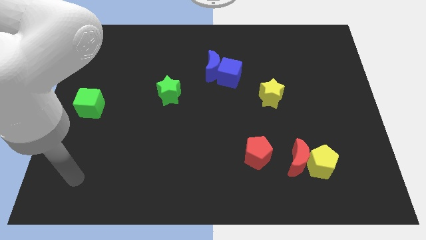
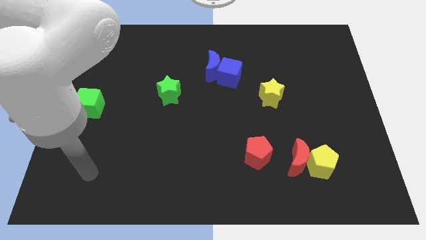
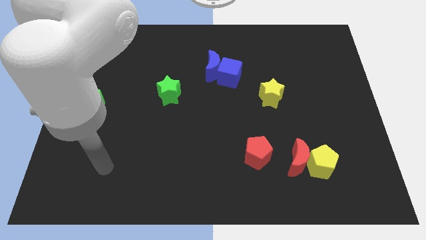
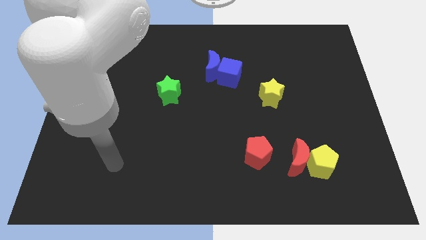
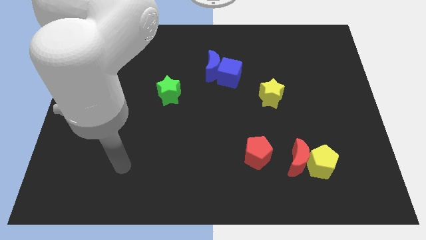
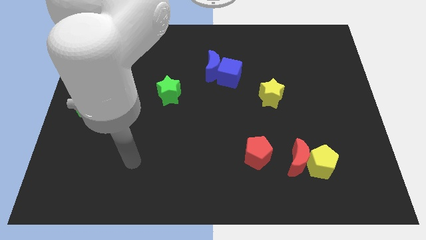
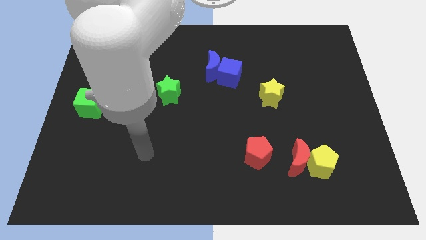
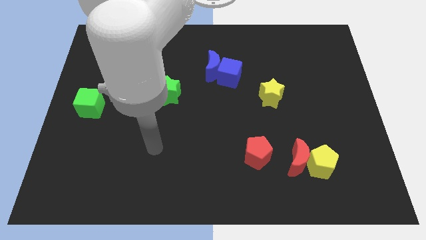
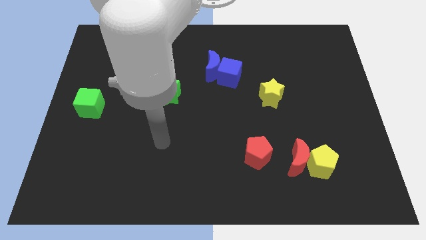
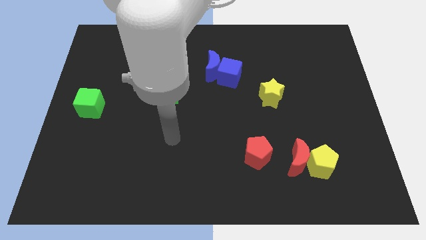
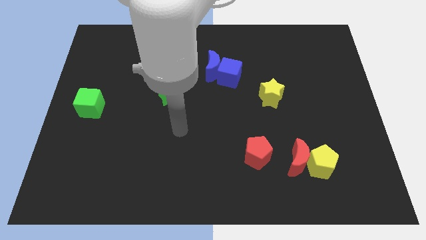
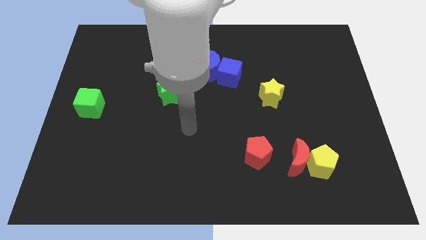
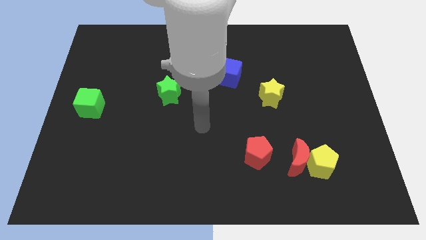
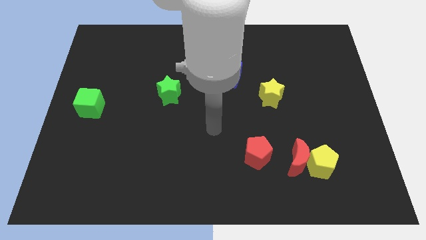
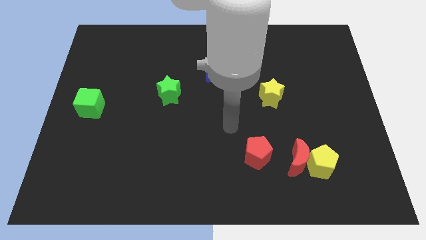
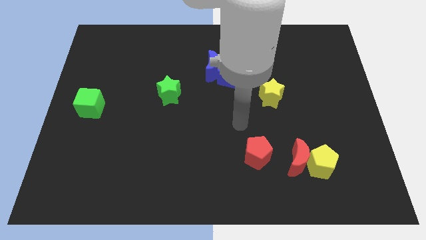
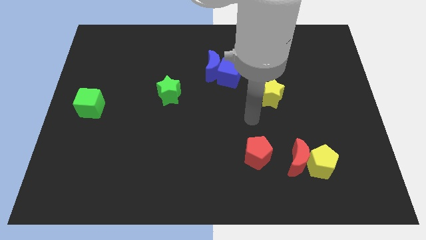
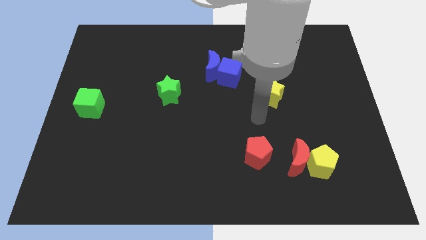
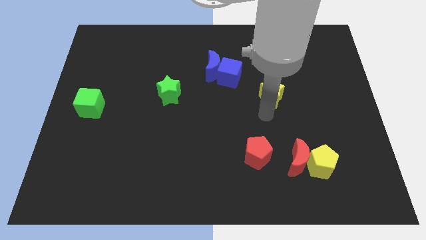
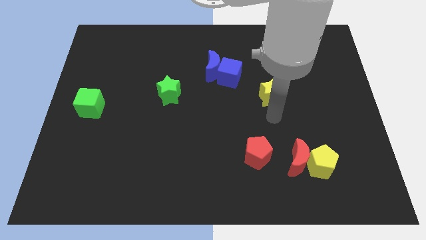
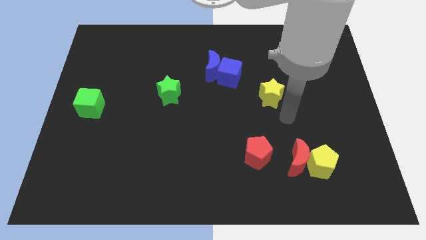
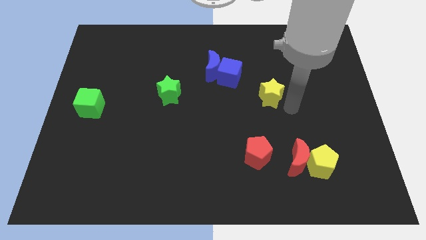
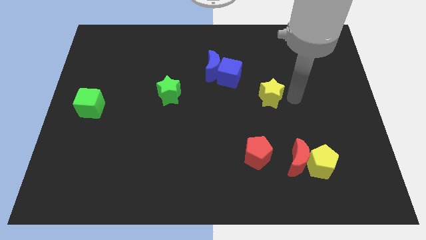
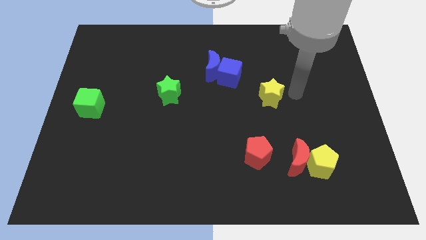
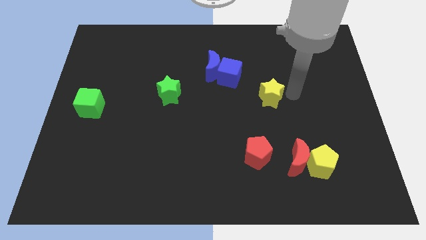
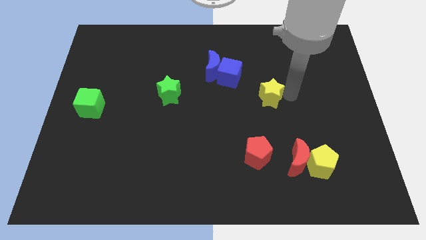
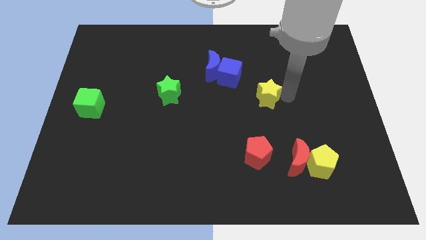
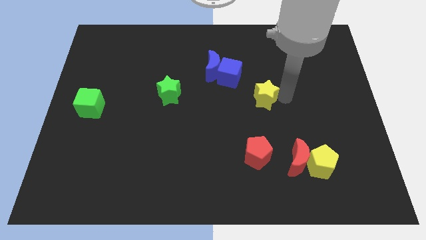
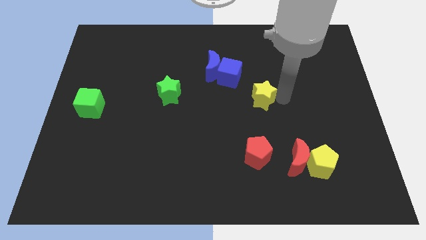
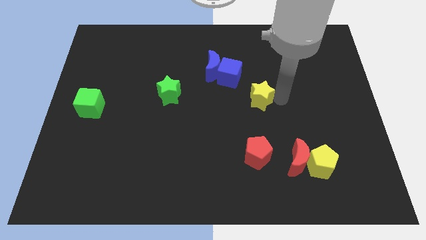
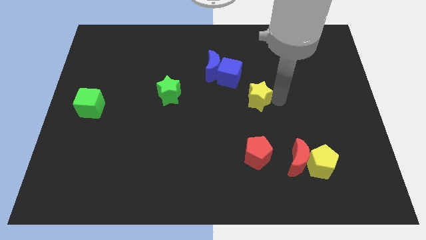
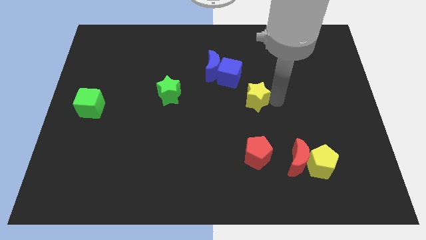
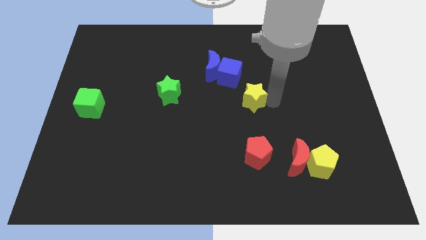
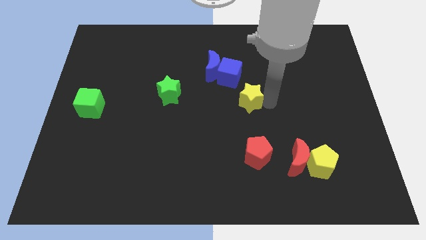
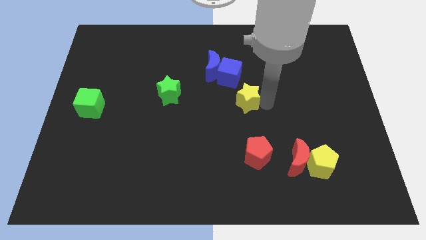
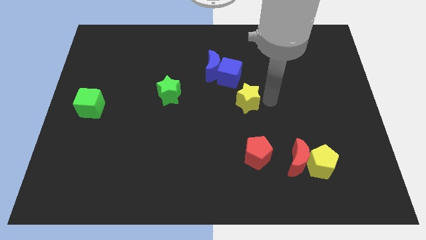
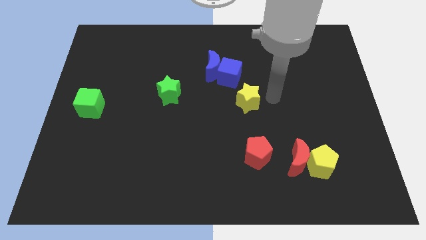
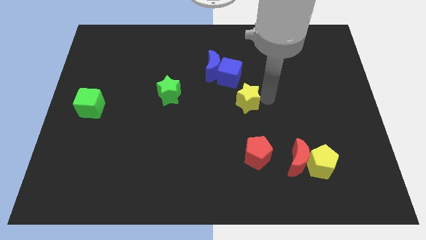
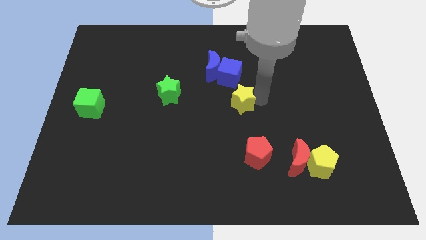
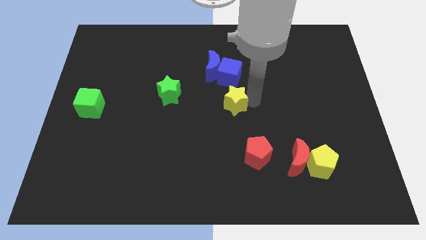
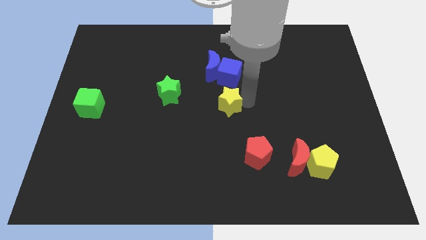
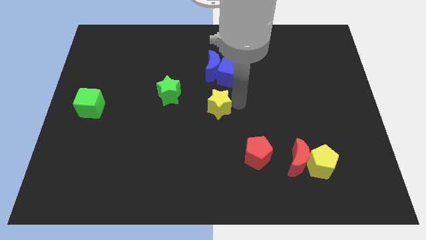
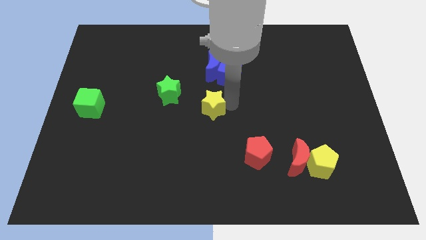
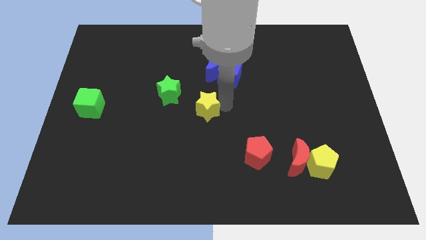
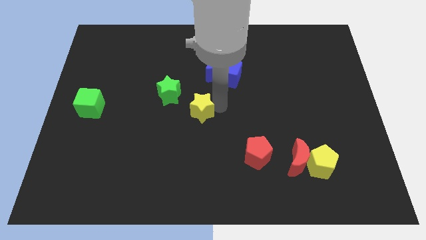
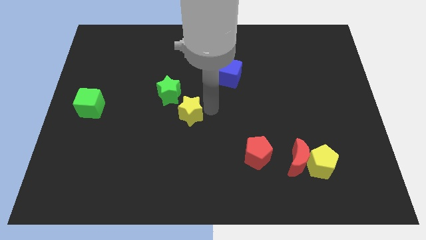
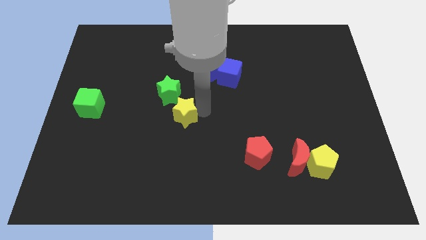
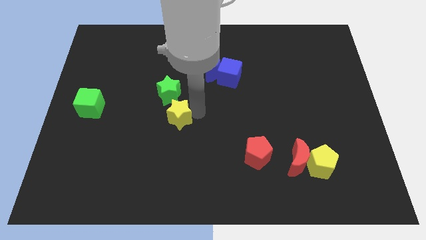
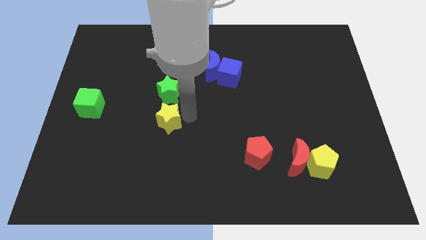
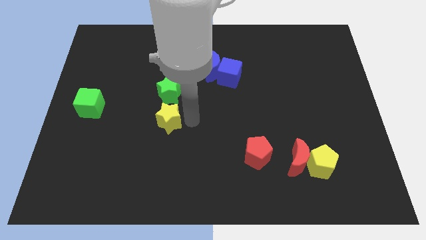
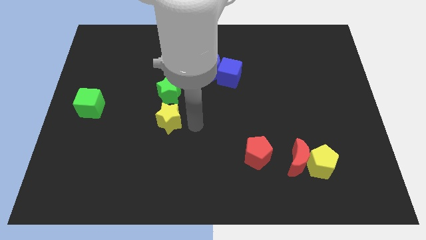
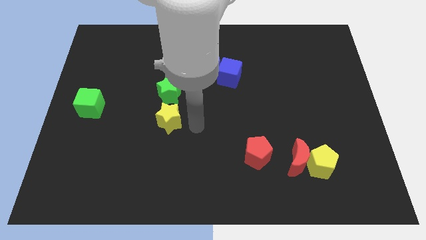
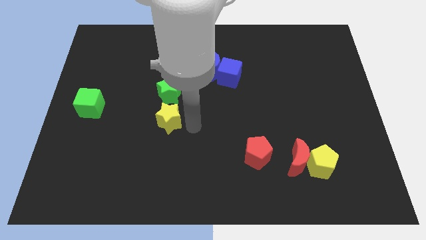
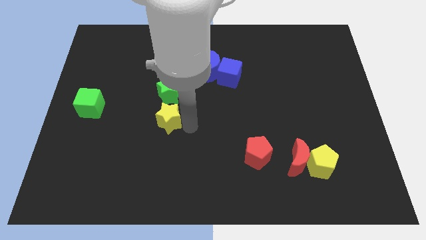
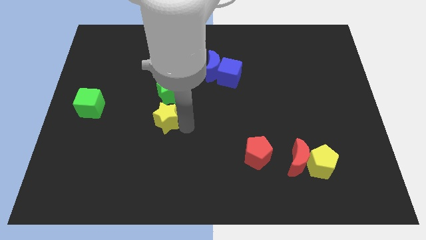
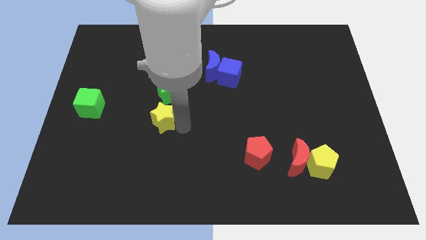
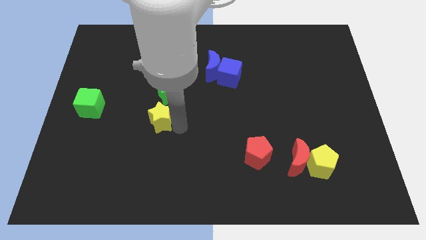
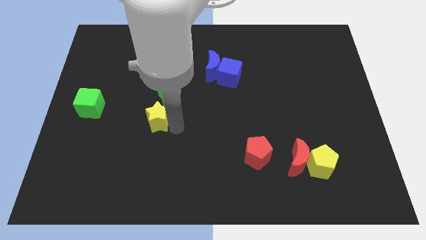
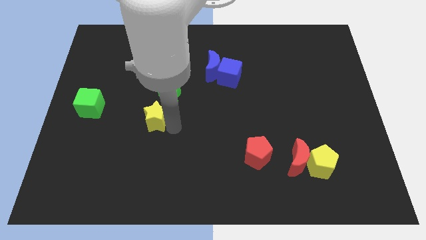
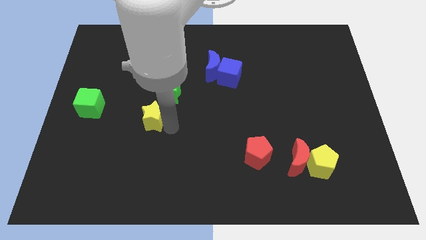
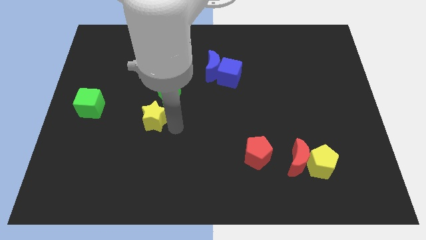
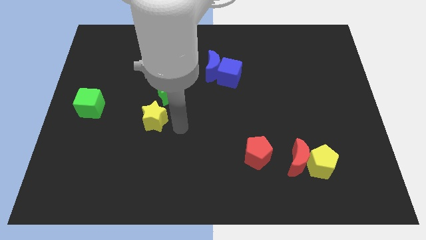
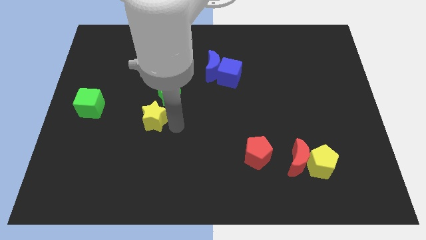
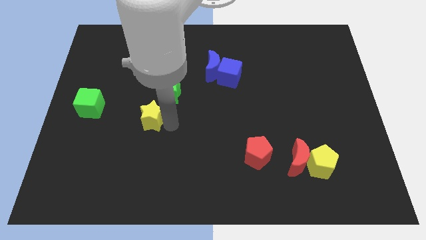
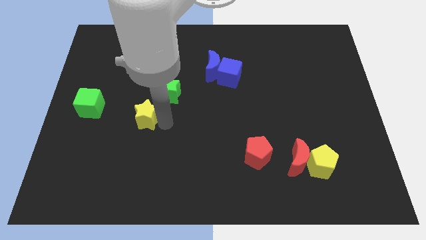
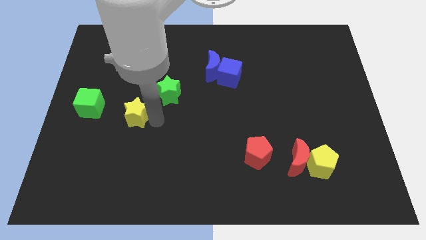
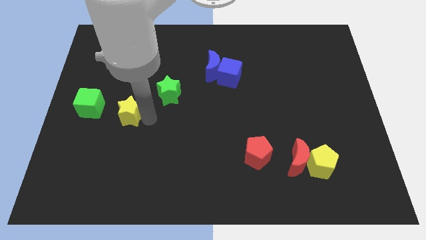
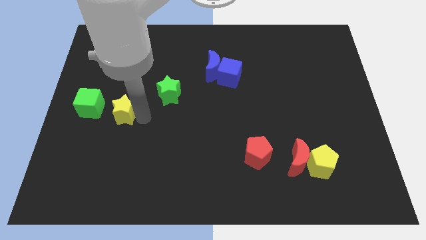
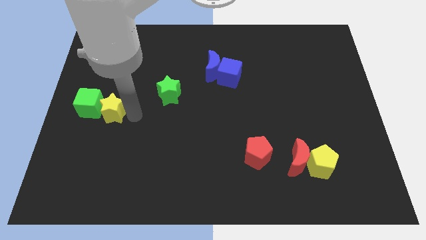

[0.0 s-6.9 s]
move the yellow star to the green cube
